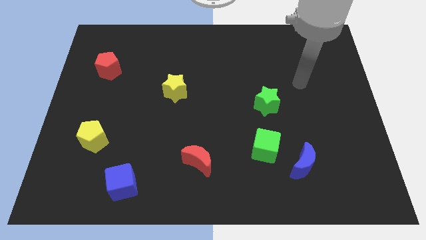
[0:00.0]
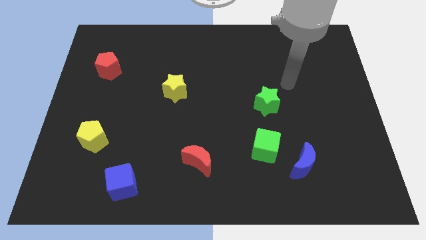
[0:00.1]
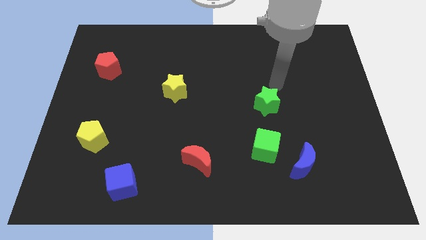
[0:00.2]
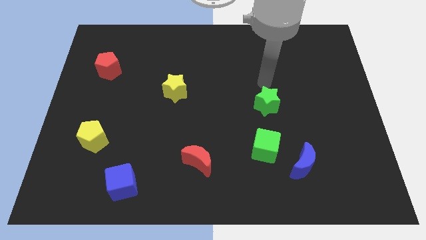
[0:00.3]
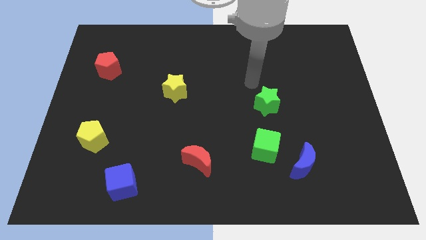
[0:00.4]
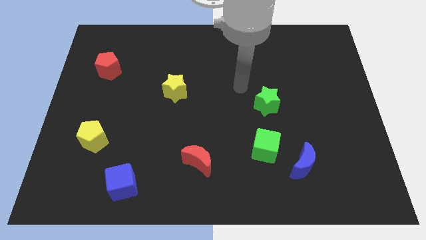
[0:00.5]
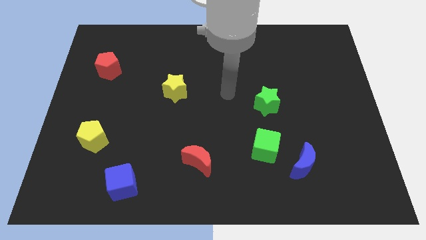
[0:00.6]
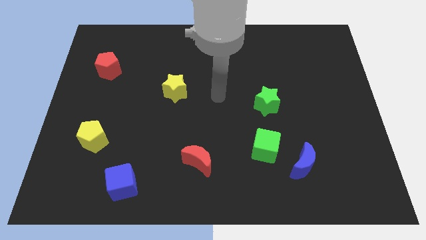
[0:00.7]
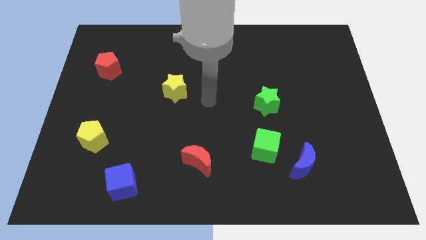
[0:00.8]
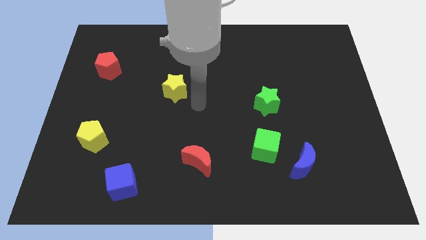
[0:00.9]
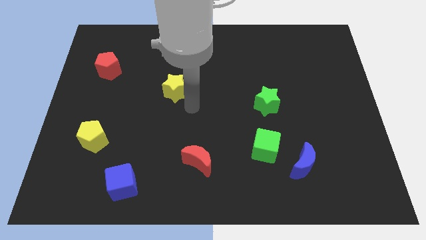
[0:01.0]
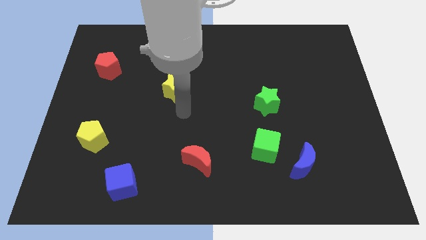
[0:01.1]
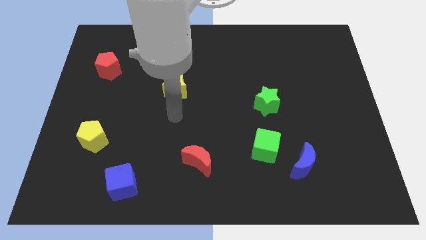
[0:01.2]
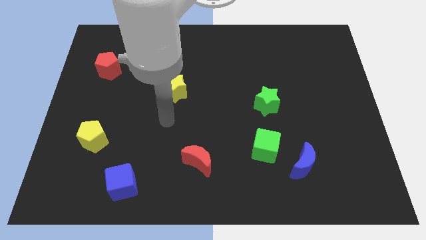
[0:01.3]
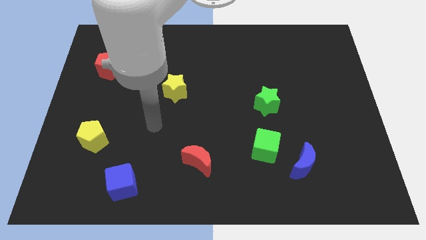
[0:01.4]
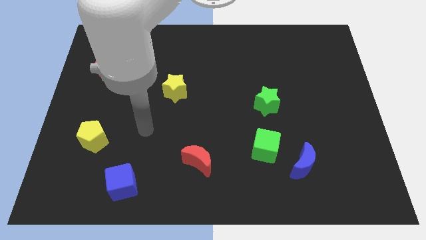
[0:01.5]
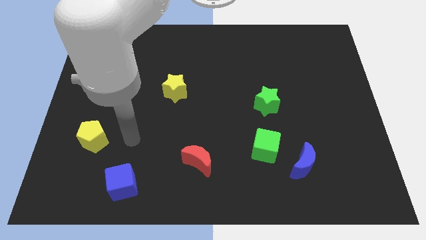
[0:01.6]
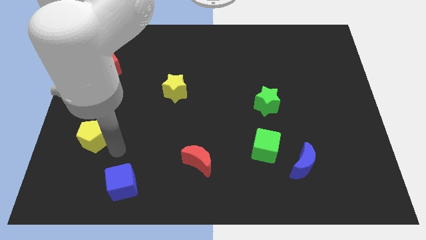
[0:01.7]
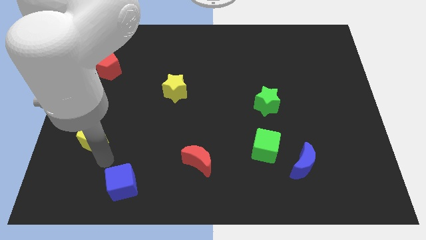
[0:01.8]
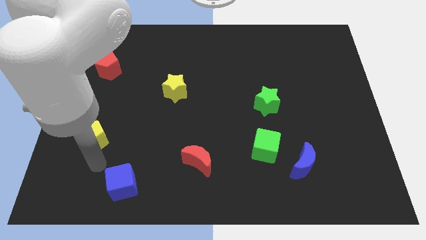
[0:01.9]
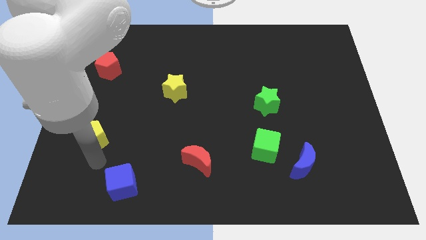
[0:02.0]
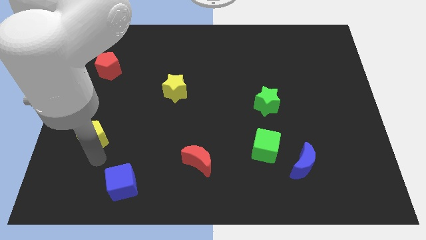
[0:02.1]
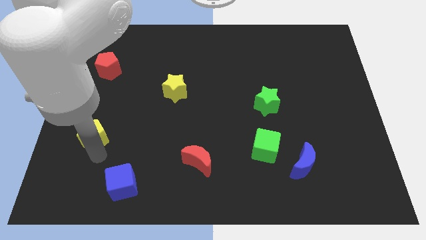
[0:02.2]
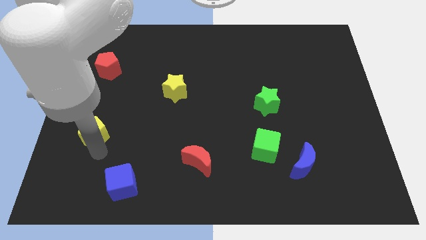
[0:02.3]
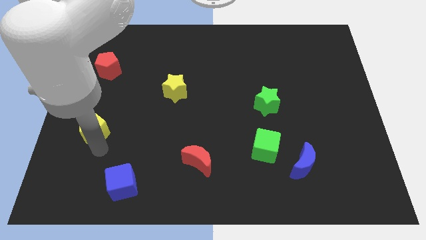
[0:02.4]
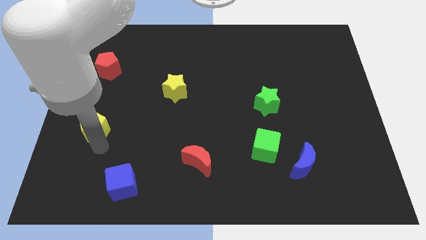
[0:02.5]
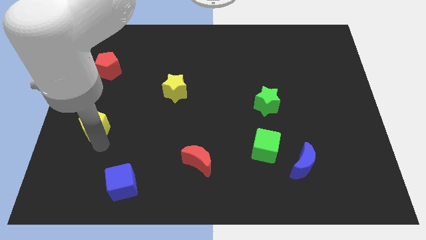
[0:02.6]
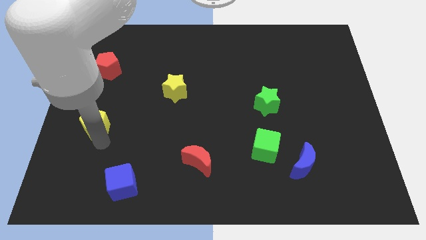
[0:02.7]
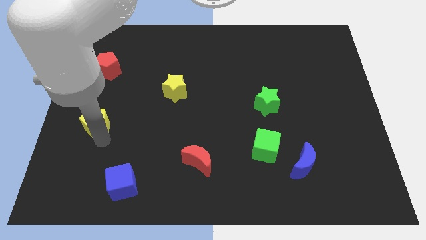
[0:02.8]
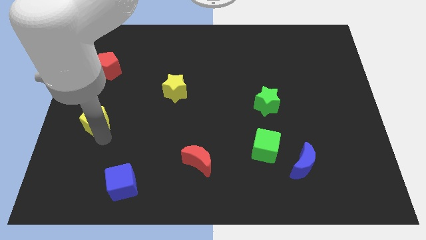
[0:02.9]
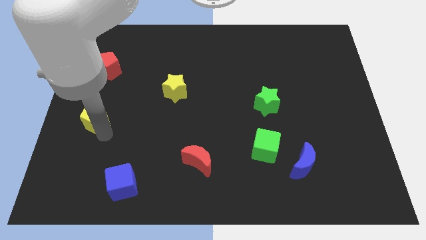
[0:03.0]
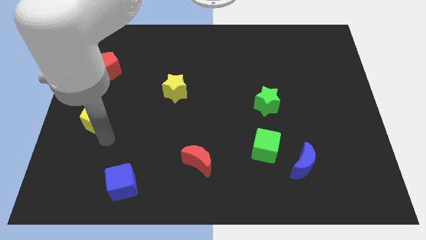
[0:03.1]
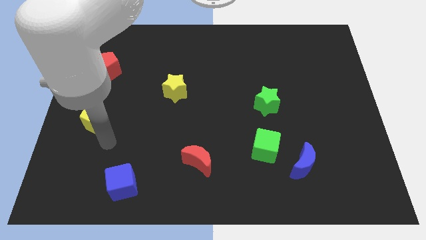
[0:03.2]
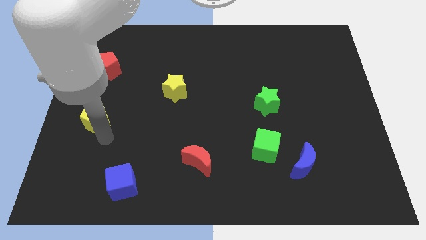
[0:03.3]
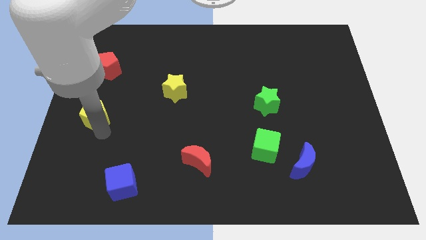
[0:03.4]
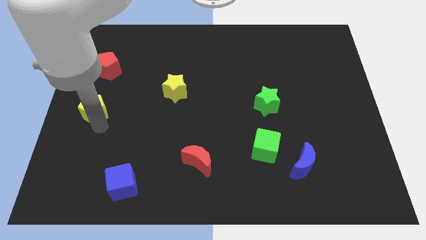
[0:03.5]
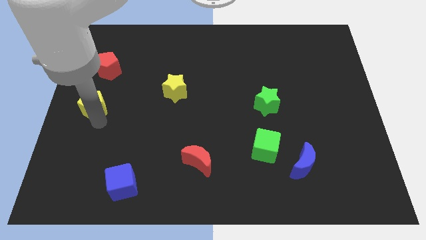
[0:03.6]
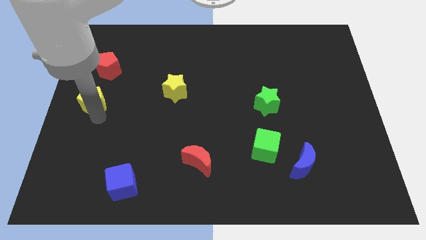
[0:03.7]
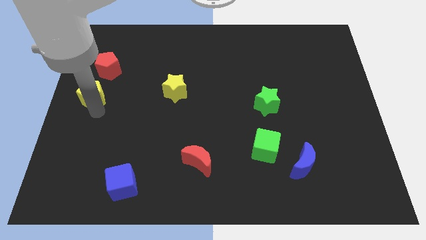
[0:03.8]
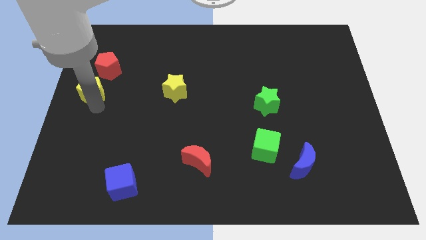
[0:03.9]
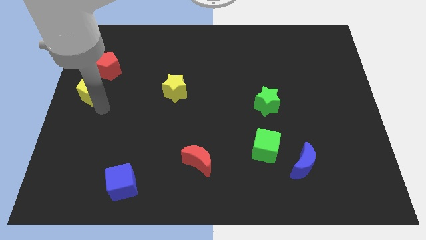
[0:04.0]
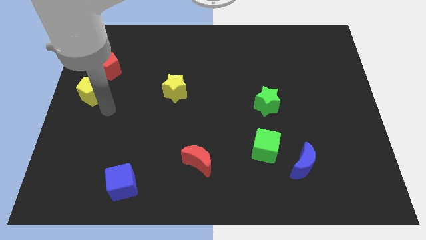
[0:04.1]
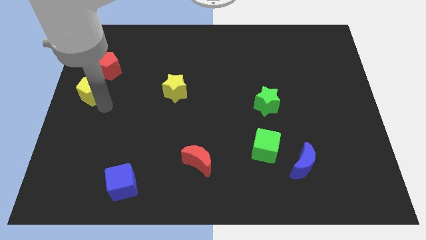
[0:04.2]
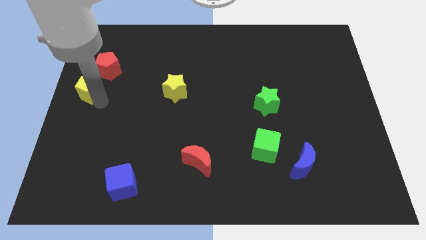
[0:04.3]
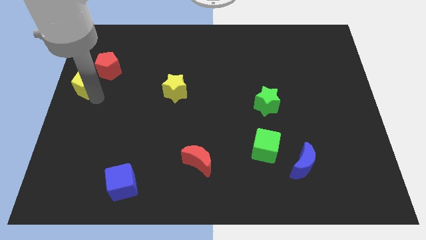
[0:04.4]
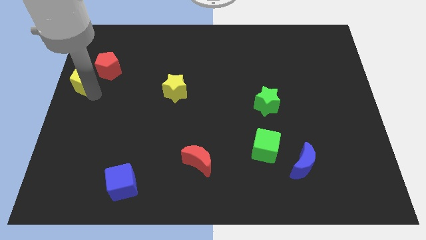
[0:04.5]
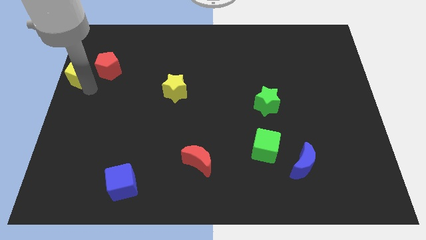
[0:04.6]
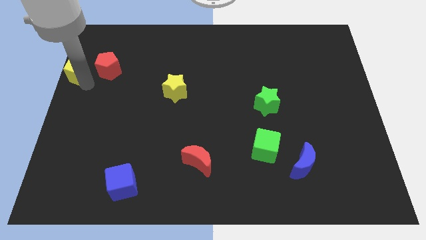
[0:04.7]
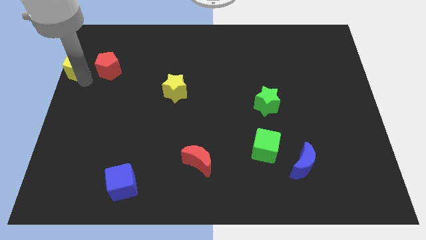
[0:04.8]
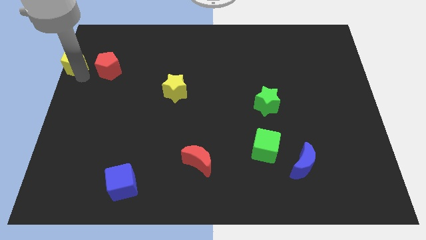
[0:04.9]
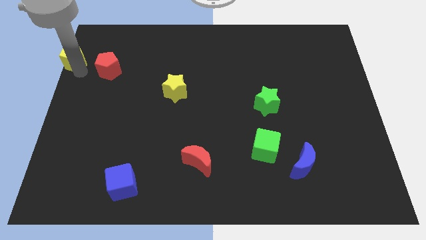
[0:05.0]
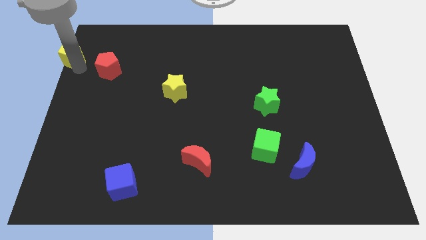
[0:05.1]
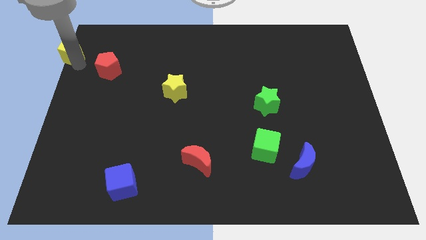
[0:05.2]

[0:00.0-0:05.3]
push the yellow pentagon to the top left
